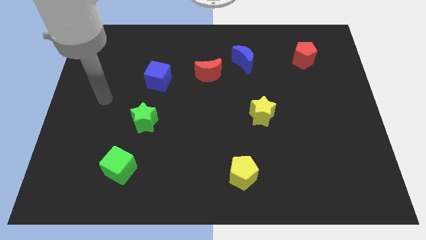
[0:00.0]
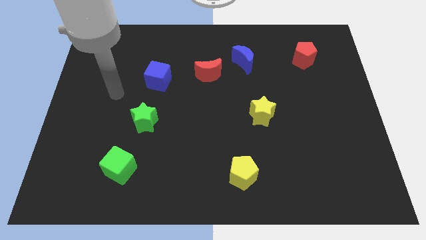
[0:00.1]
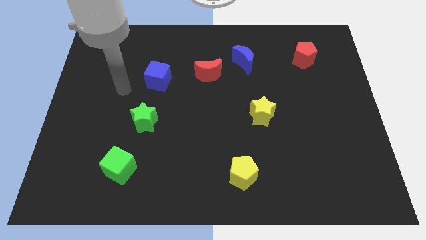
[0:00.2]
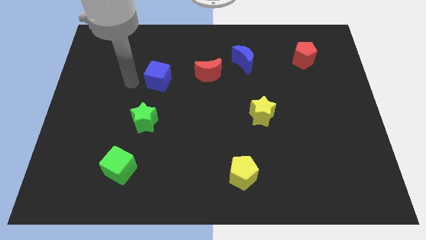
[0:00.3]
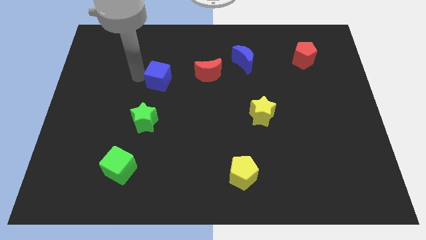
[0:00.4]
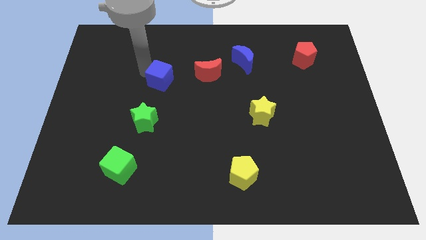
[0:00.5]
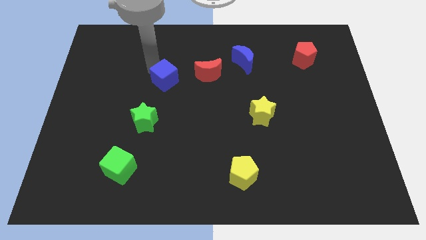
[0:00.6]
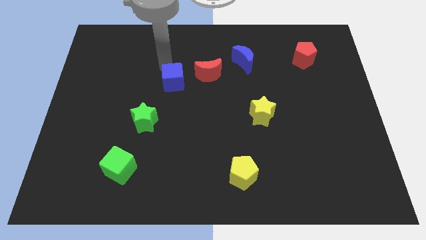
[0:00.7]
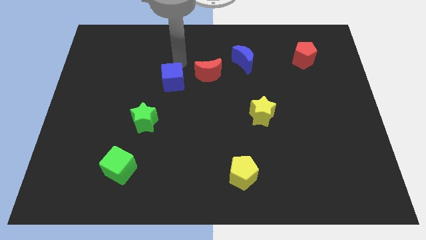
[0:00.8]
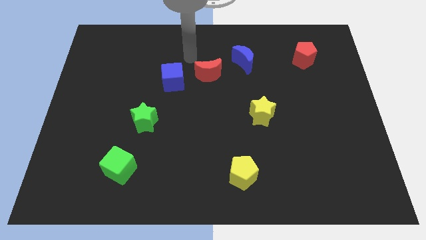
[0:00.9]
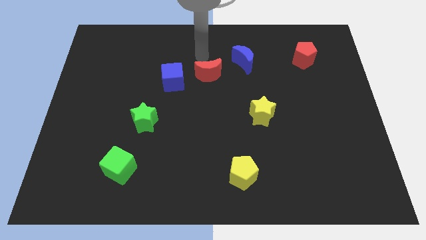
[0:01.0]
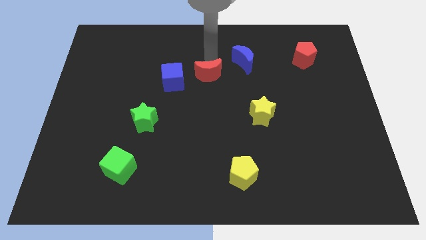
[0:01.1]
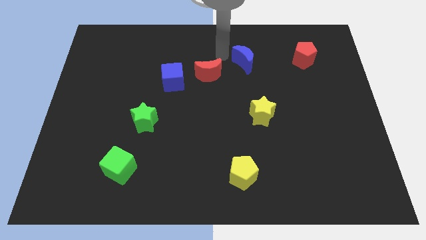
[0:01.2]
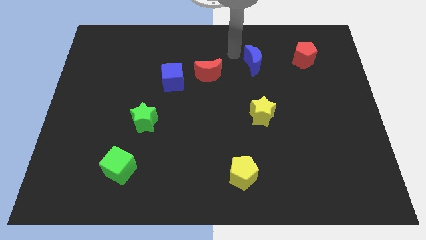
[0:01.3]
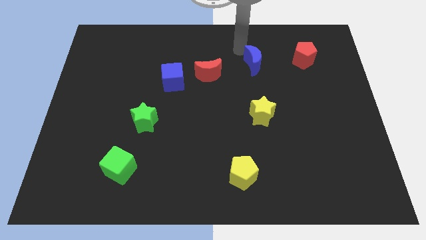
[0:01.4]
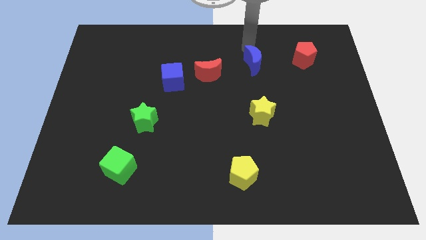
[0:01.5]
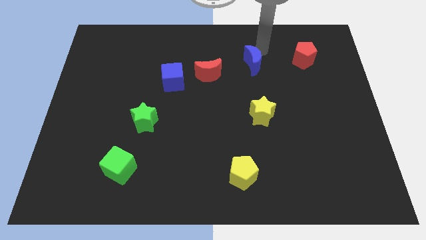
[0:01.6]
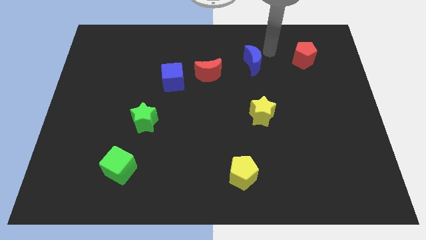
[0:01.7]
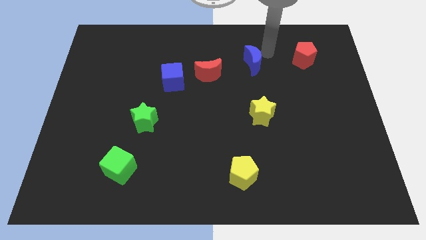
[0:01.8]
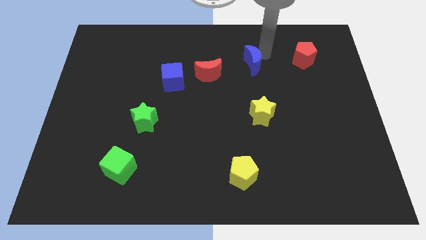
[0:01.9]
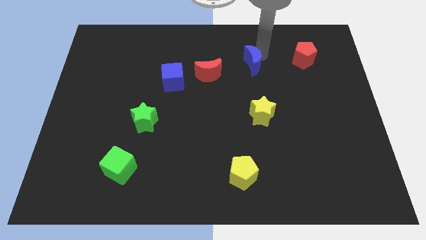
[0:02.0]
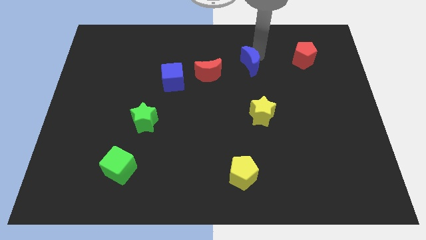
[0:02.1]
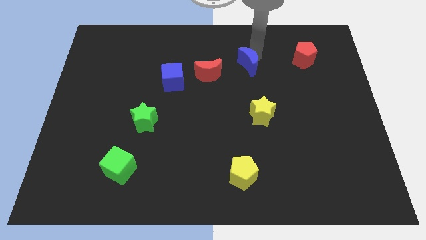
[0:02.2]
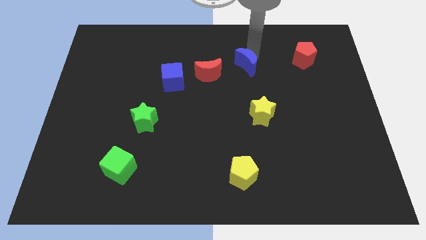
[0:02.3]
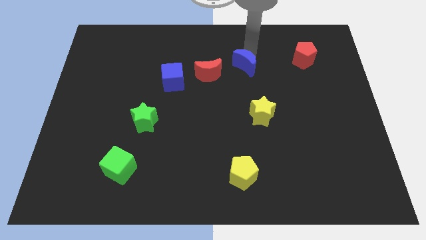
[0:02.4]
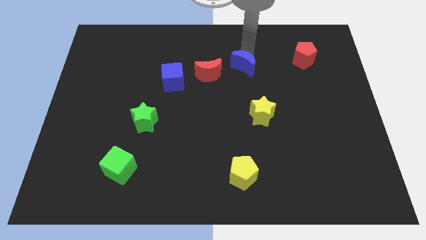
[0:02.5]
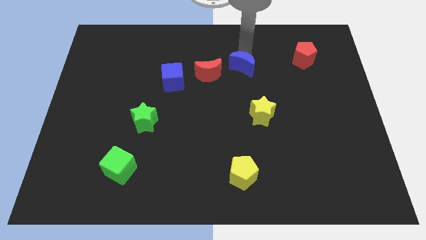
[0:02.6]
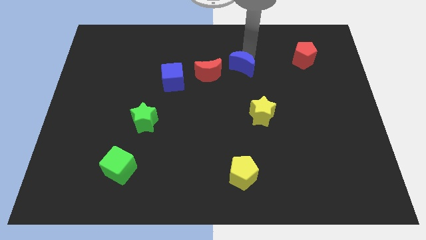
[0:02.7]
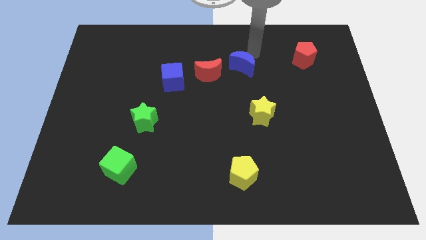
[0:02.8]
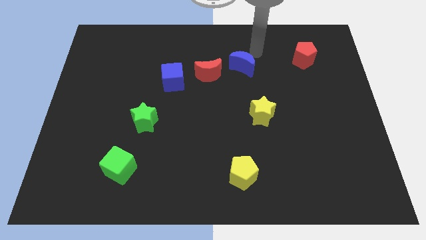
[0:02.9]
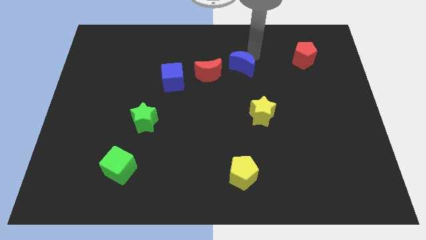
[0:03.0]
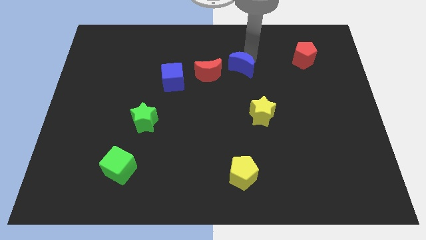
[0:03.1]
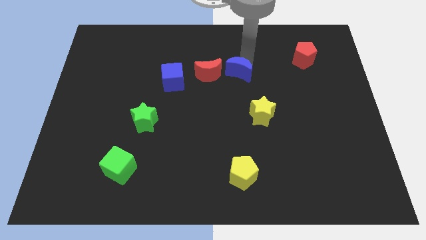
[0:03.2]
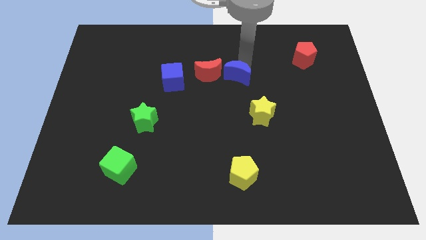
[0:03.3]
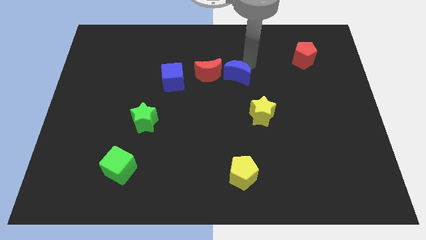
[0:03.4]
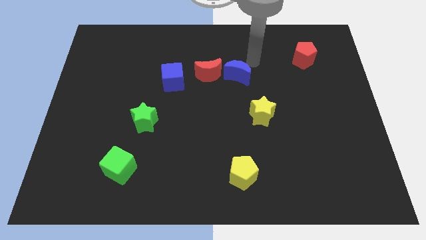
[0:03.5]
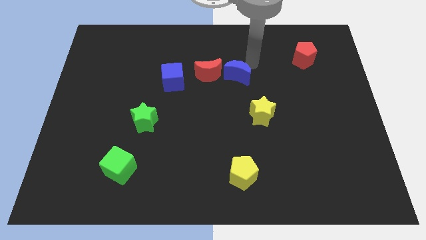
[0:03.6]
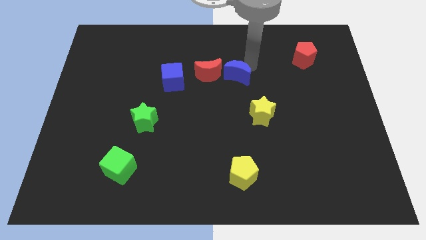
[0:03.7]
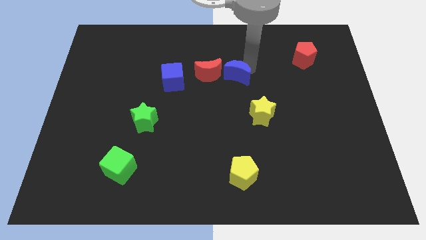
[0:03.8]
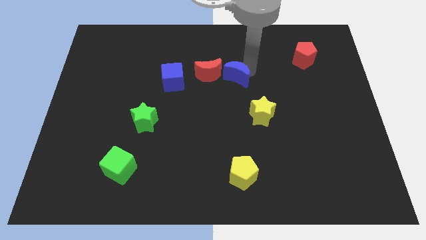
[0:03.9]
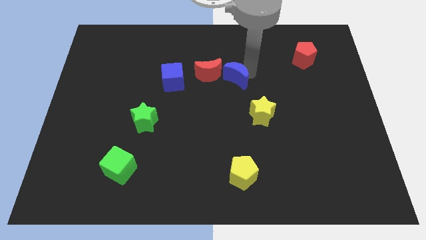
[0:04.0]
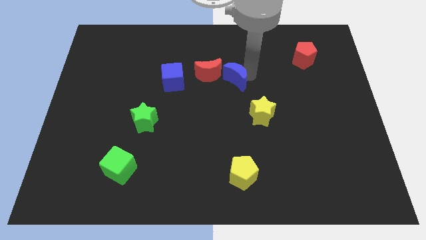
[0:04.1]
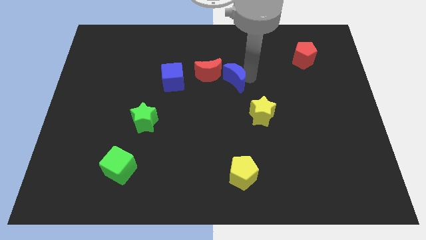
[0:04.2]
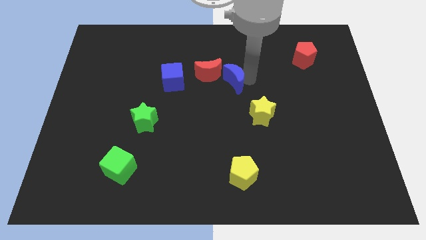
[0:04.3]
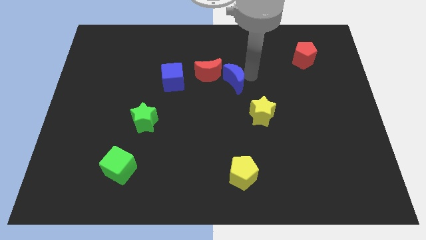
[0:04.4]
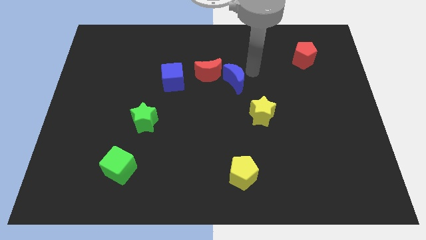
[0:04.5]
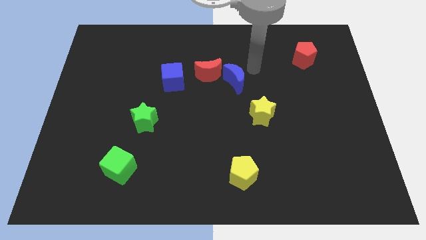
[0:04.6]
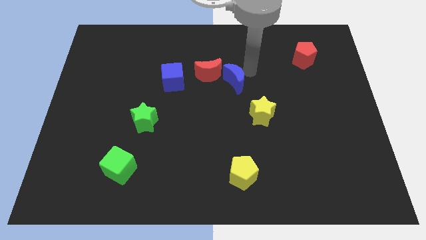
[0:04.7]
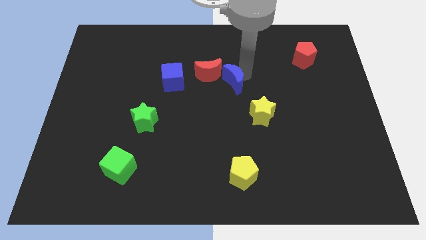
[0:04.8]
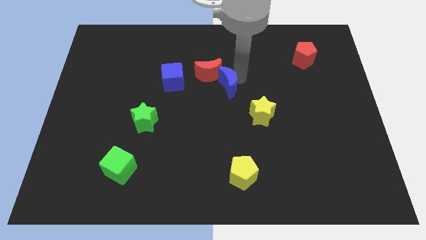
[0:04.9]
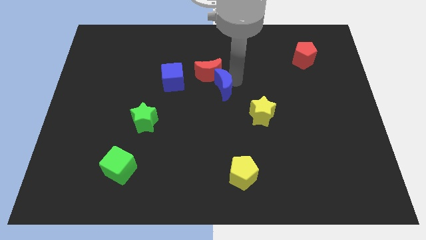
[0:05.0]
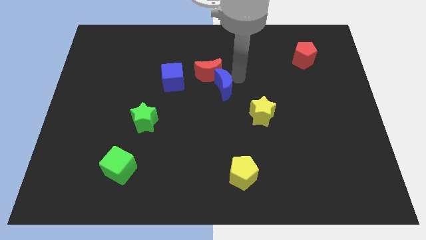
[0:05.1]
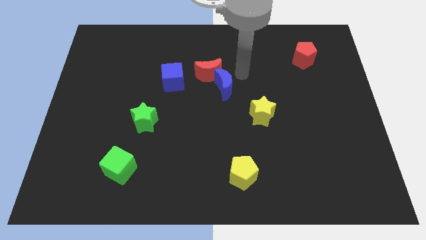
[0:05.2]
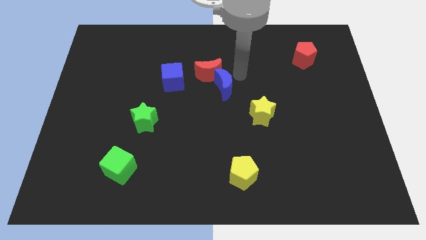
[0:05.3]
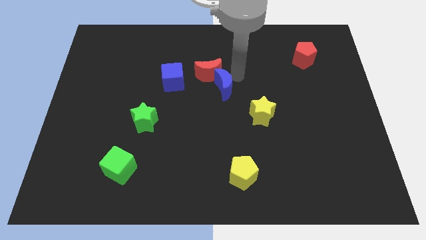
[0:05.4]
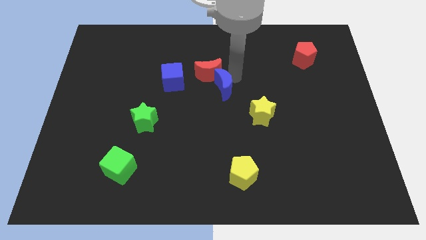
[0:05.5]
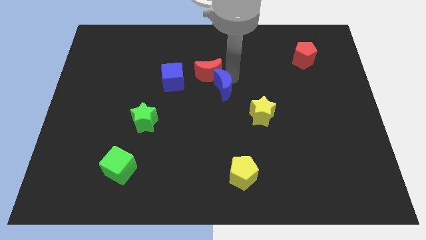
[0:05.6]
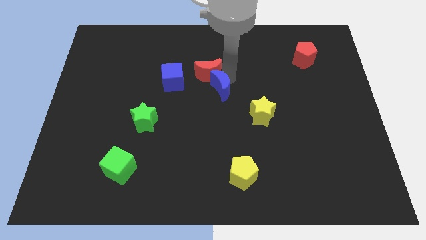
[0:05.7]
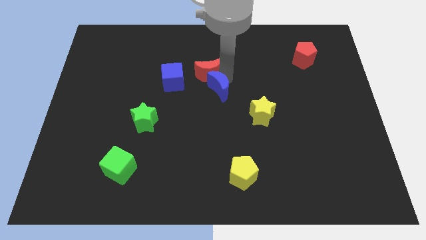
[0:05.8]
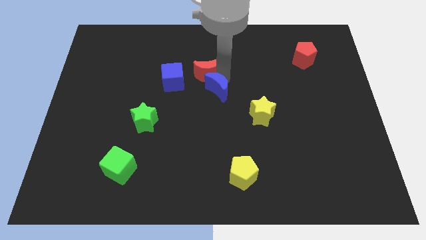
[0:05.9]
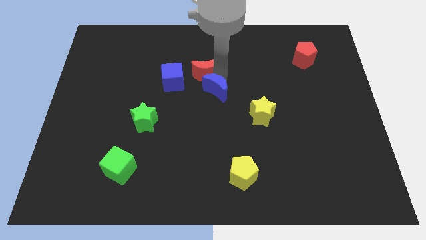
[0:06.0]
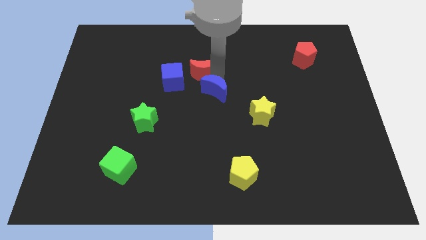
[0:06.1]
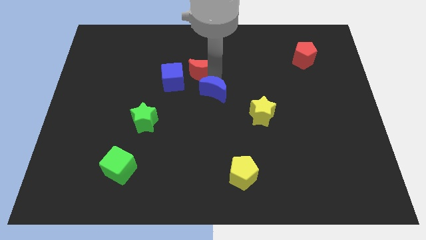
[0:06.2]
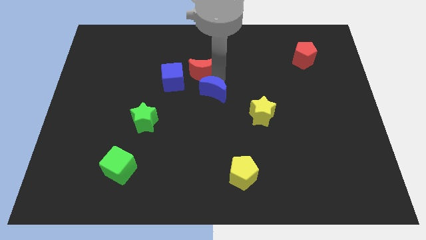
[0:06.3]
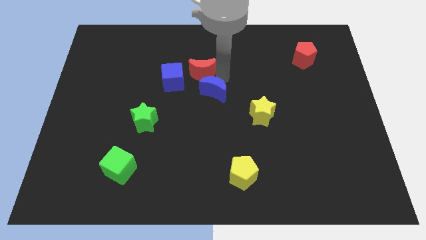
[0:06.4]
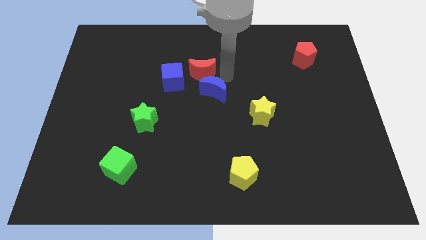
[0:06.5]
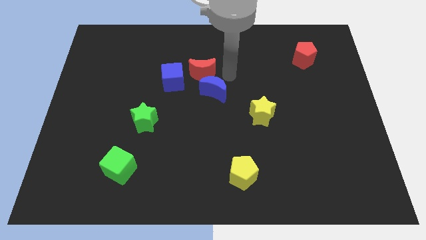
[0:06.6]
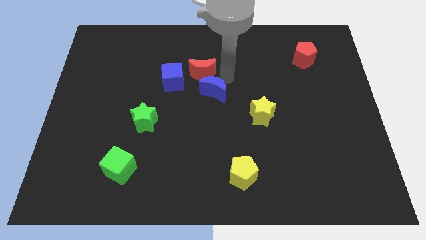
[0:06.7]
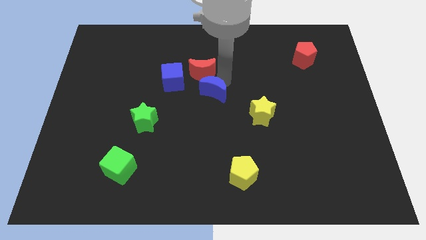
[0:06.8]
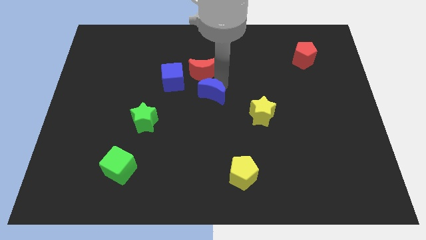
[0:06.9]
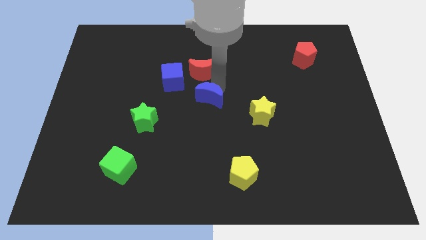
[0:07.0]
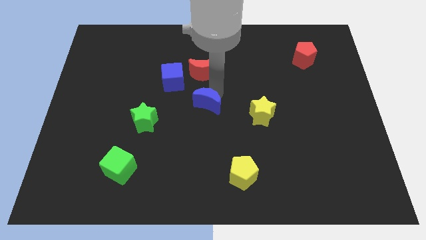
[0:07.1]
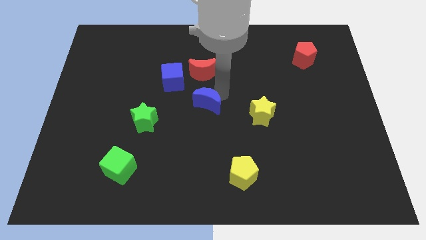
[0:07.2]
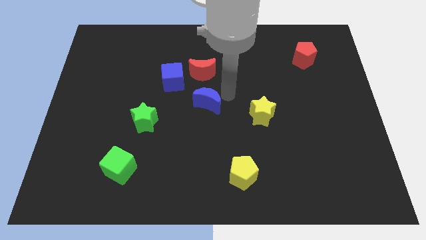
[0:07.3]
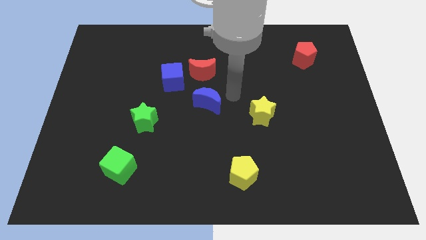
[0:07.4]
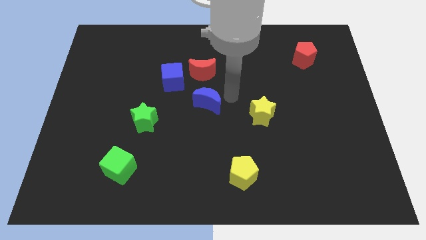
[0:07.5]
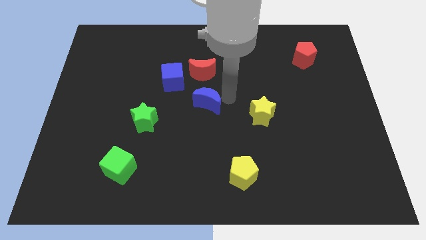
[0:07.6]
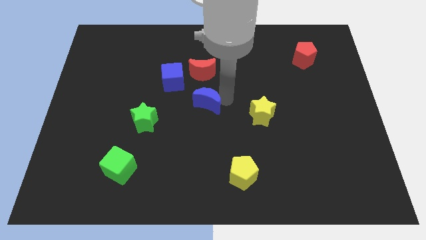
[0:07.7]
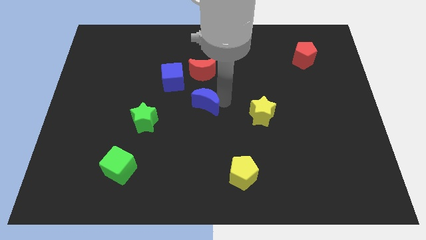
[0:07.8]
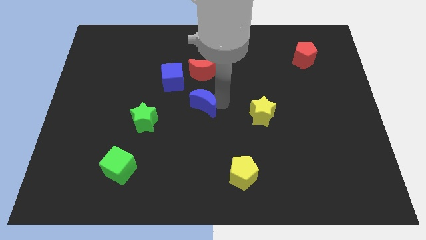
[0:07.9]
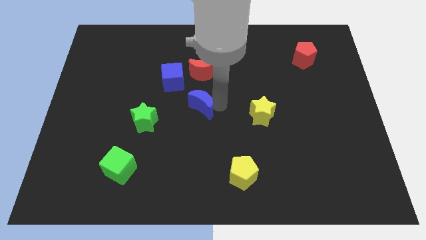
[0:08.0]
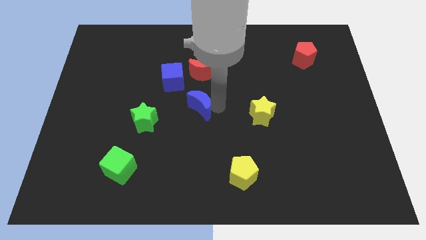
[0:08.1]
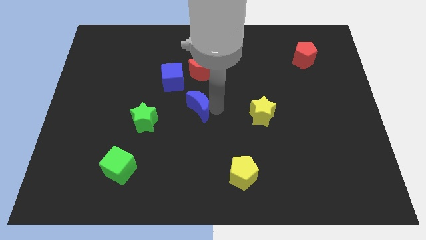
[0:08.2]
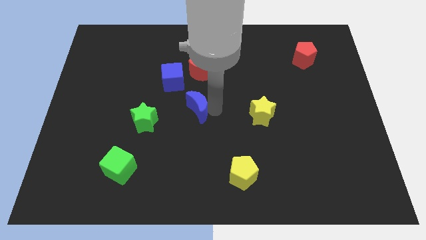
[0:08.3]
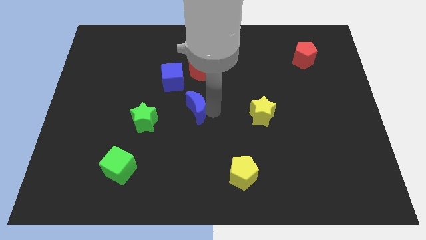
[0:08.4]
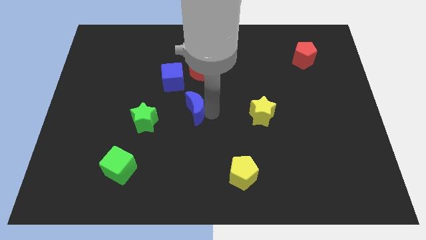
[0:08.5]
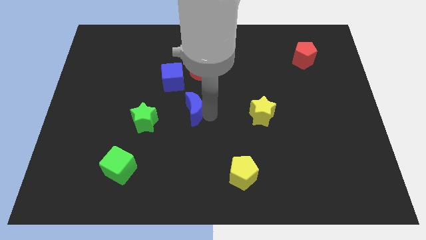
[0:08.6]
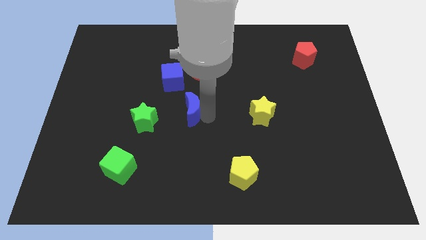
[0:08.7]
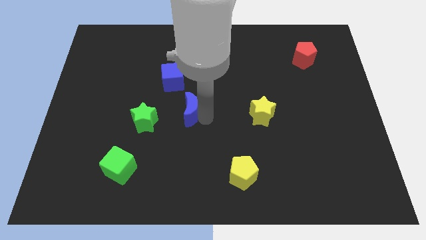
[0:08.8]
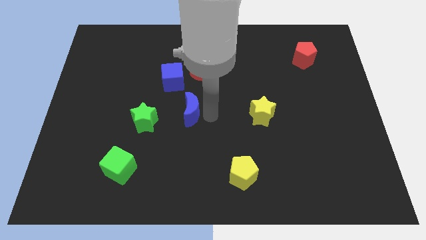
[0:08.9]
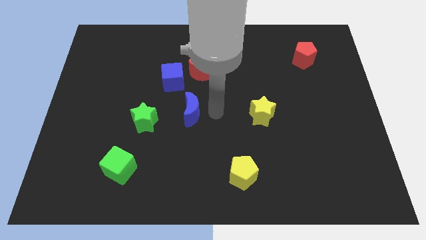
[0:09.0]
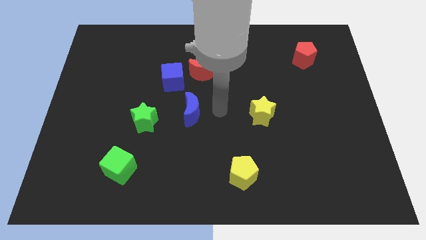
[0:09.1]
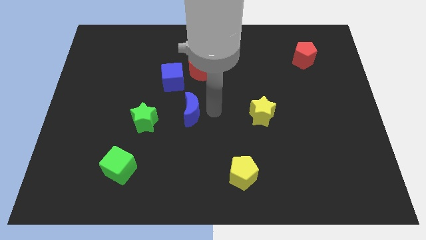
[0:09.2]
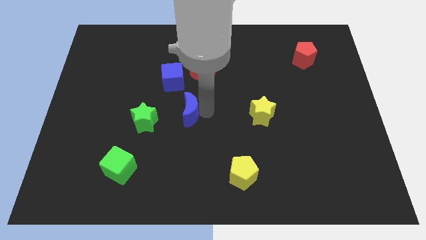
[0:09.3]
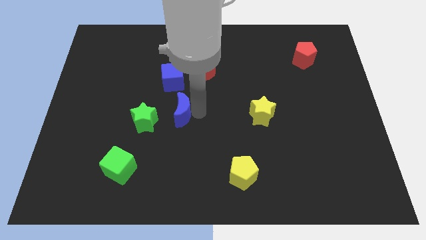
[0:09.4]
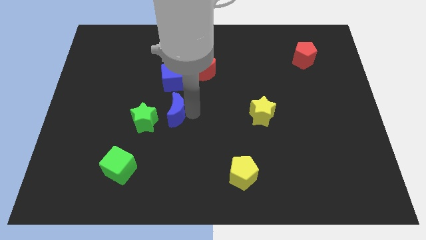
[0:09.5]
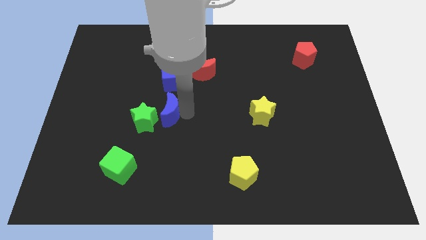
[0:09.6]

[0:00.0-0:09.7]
slide the blue moon towards the green star
